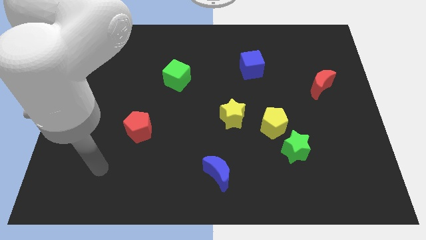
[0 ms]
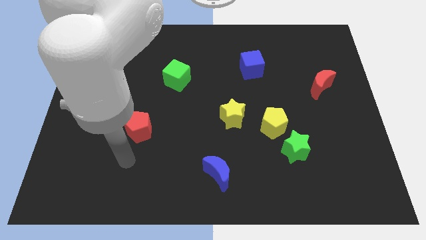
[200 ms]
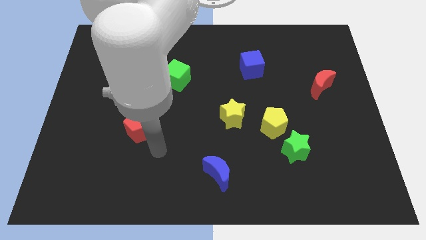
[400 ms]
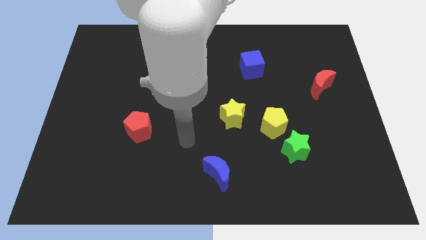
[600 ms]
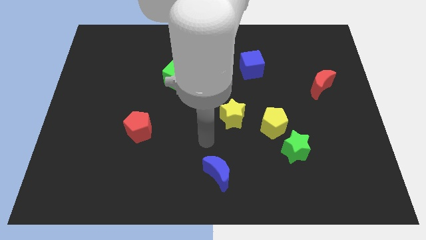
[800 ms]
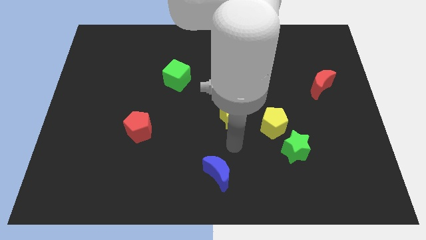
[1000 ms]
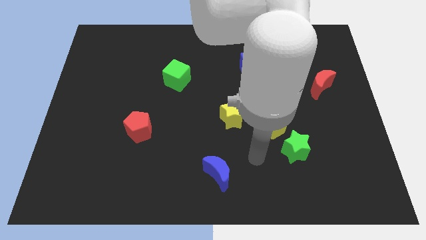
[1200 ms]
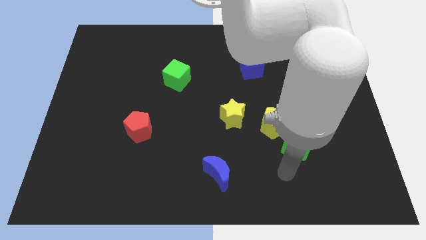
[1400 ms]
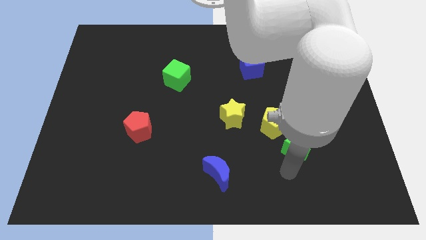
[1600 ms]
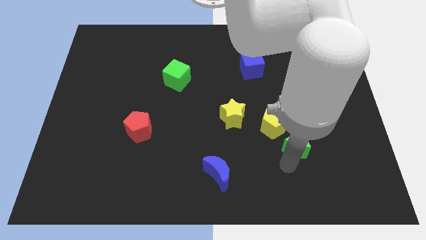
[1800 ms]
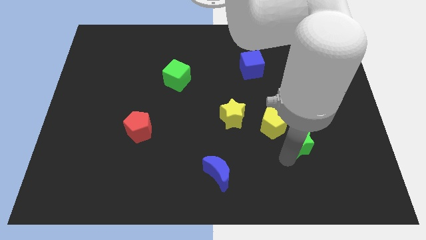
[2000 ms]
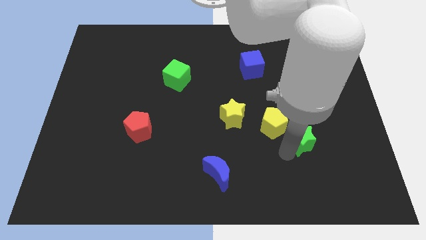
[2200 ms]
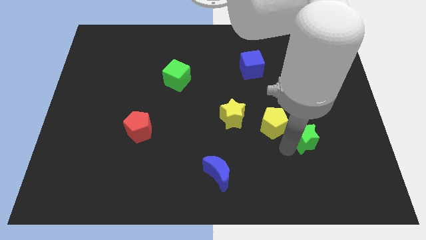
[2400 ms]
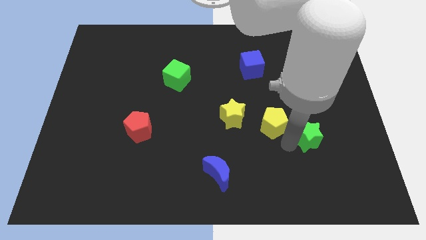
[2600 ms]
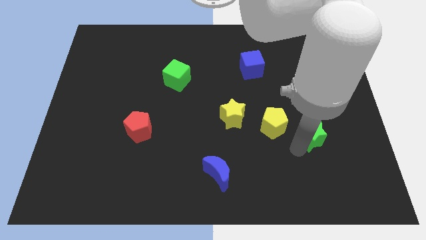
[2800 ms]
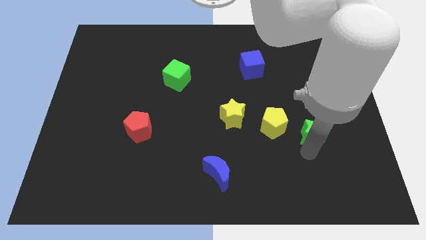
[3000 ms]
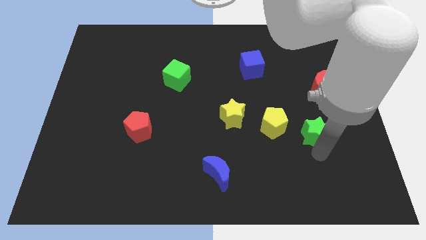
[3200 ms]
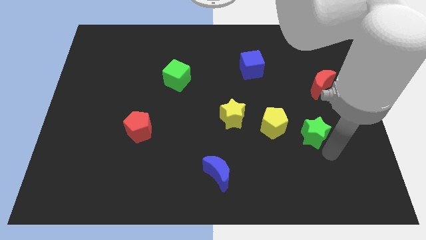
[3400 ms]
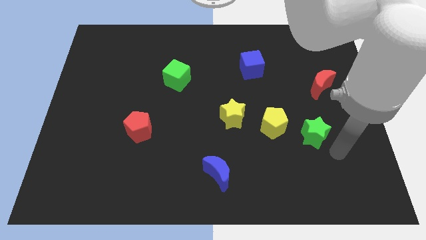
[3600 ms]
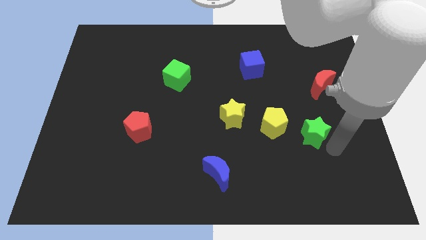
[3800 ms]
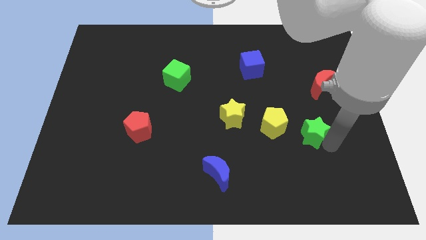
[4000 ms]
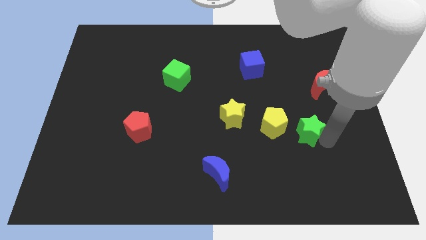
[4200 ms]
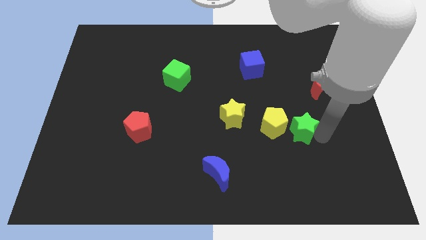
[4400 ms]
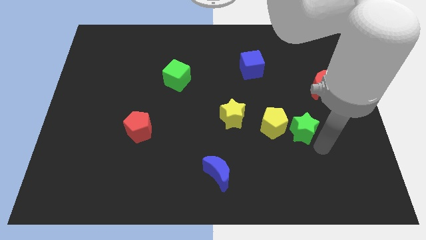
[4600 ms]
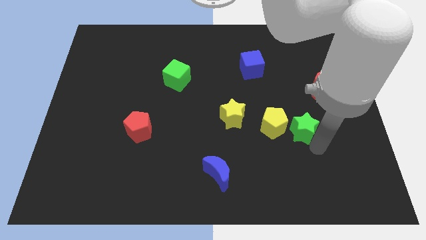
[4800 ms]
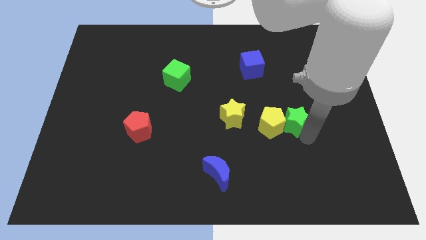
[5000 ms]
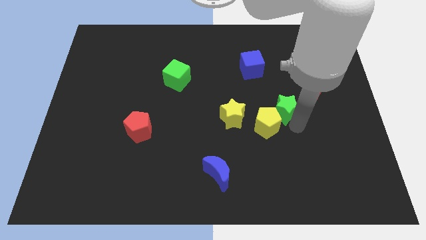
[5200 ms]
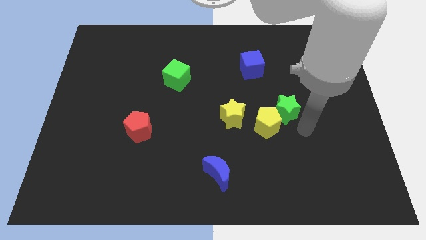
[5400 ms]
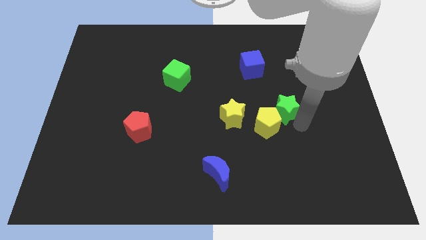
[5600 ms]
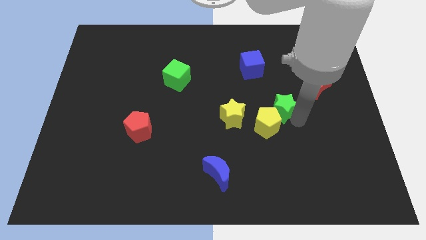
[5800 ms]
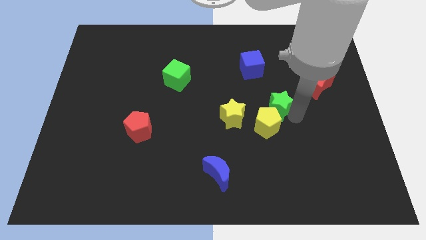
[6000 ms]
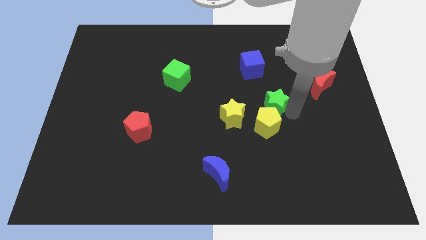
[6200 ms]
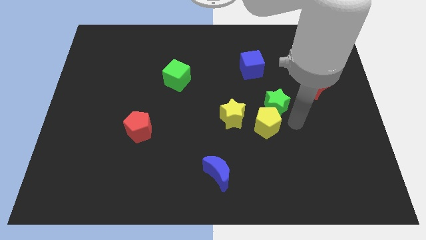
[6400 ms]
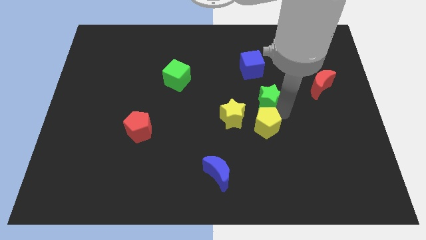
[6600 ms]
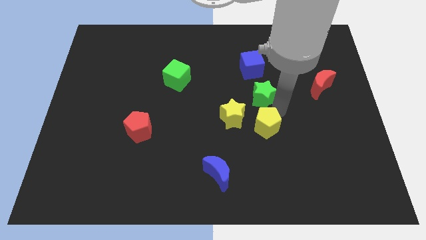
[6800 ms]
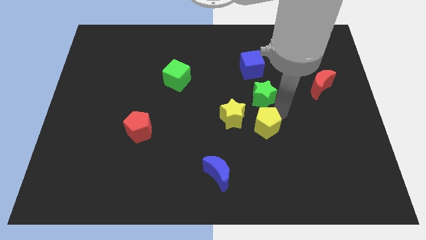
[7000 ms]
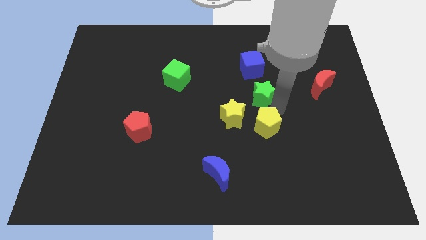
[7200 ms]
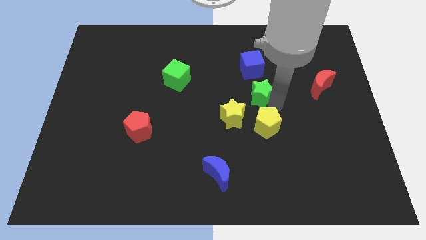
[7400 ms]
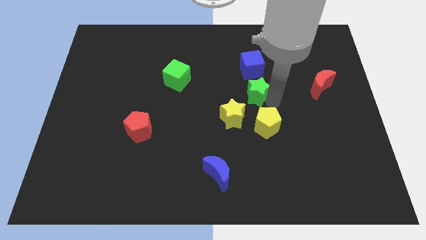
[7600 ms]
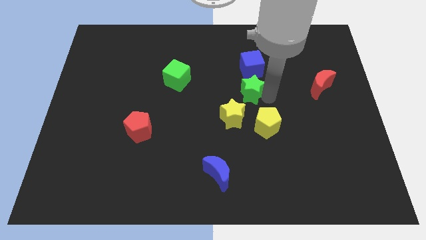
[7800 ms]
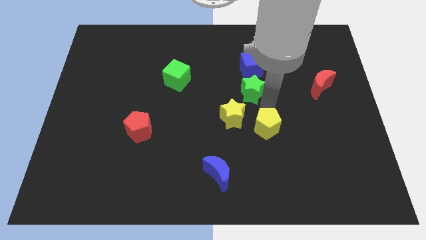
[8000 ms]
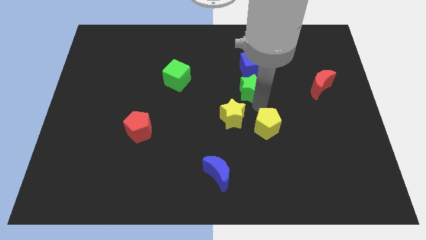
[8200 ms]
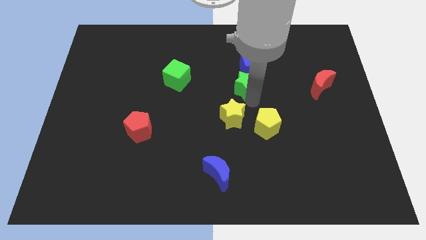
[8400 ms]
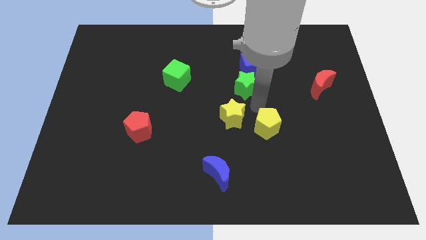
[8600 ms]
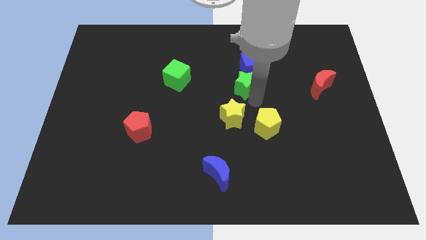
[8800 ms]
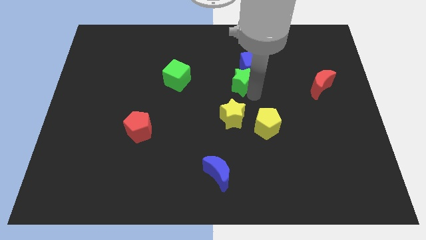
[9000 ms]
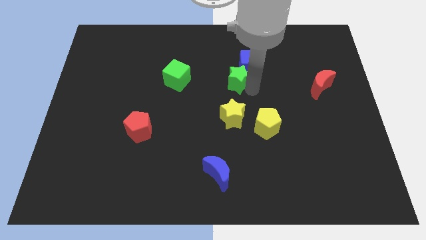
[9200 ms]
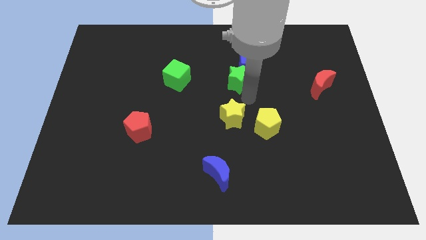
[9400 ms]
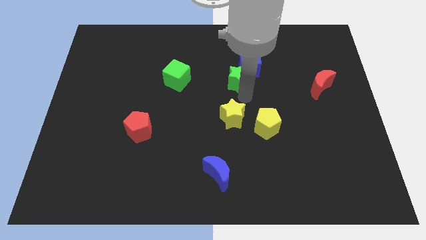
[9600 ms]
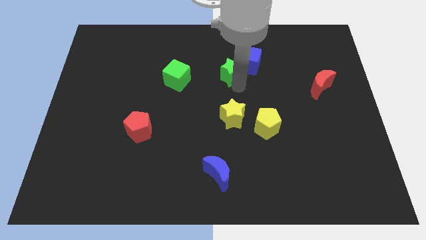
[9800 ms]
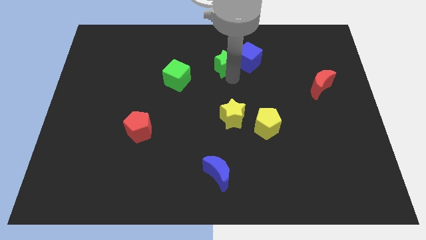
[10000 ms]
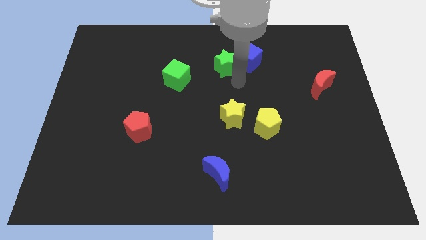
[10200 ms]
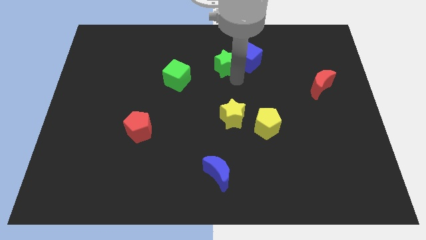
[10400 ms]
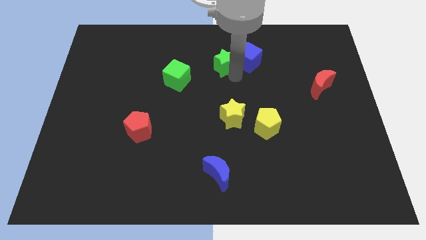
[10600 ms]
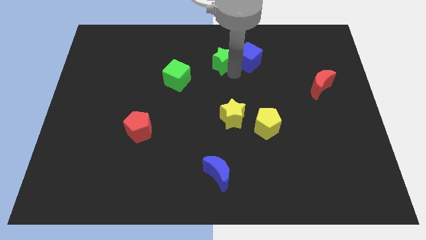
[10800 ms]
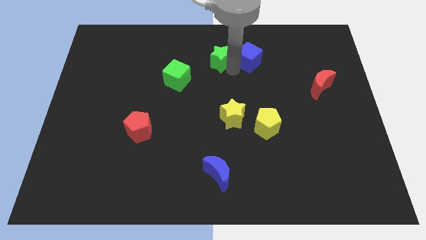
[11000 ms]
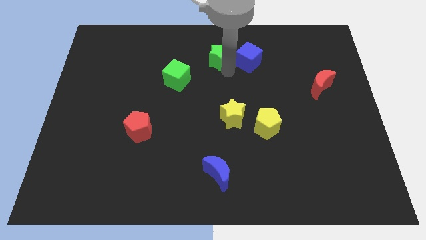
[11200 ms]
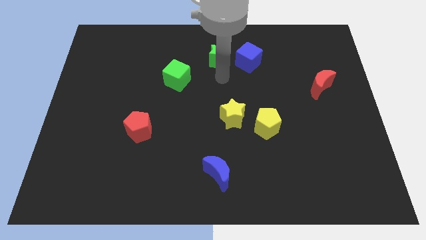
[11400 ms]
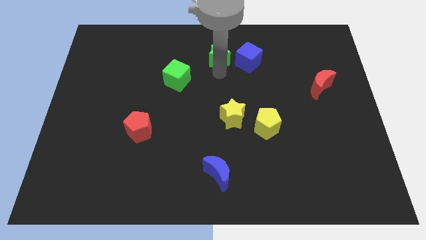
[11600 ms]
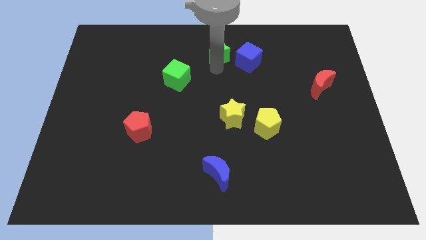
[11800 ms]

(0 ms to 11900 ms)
move the green star to the top

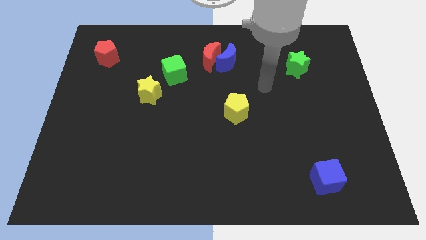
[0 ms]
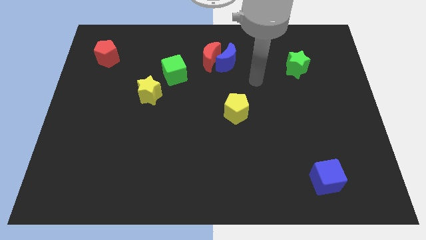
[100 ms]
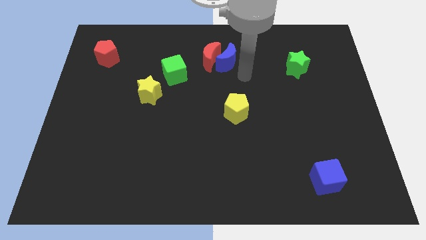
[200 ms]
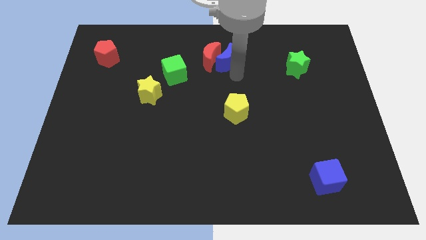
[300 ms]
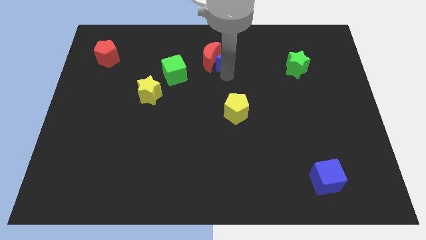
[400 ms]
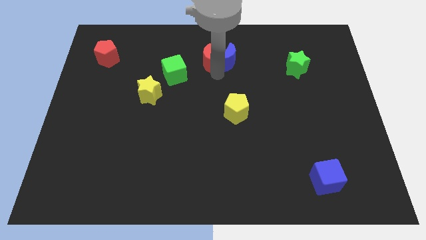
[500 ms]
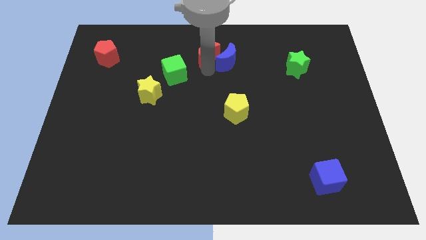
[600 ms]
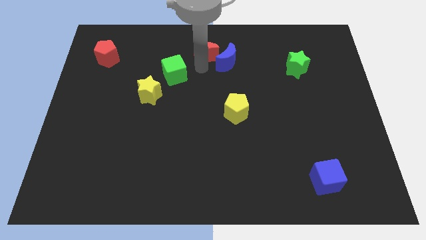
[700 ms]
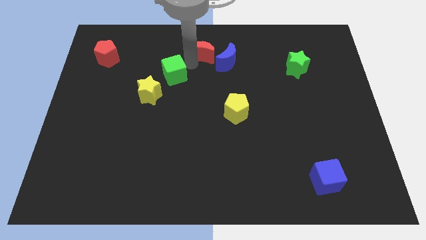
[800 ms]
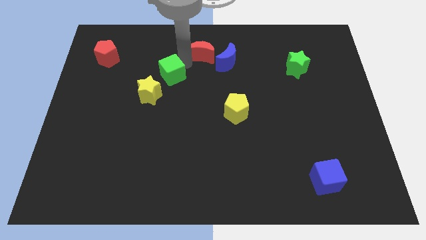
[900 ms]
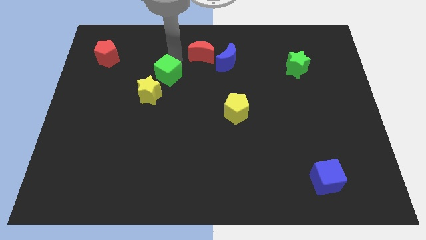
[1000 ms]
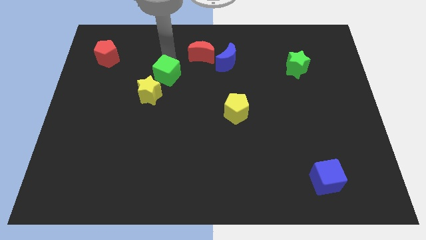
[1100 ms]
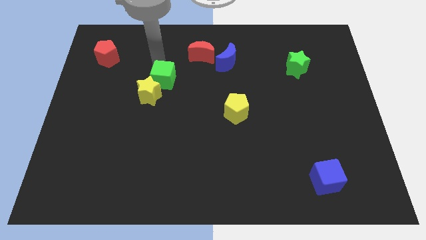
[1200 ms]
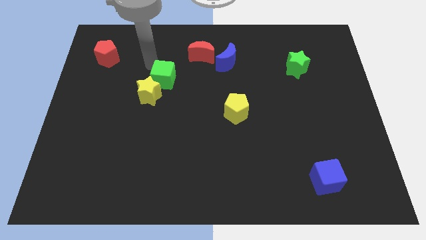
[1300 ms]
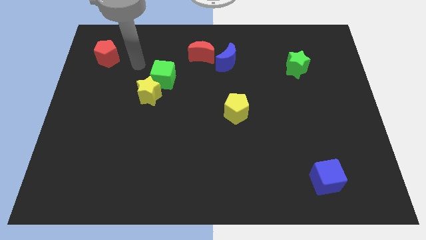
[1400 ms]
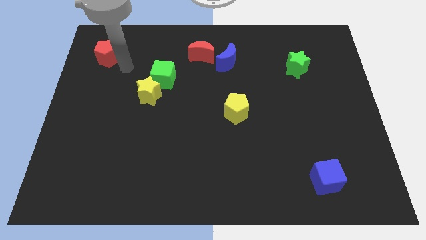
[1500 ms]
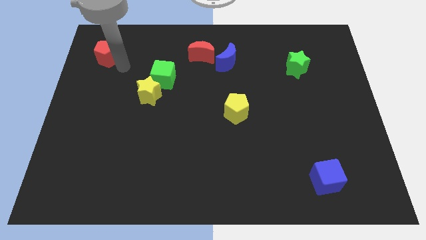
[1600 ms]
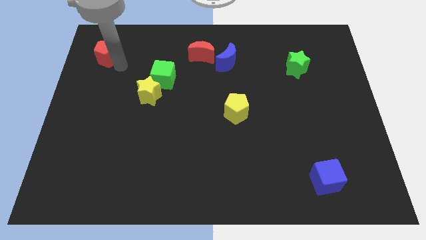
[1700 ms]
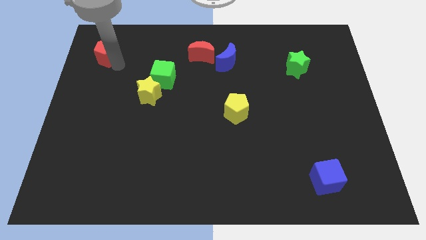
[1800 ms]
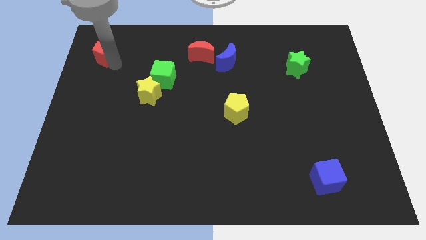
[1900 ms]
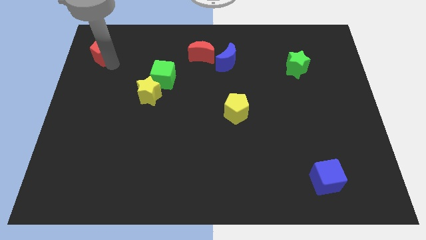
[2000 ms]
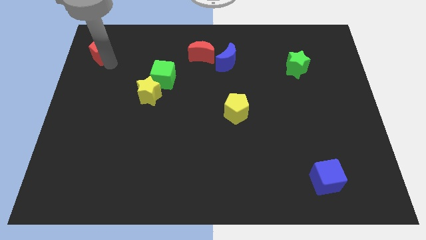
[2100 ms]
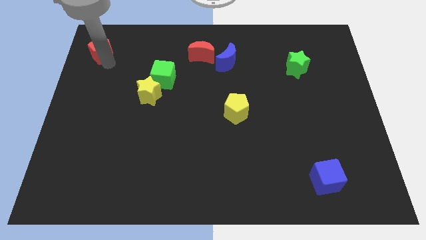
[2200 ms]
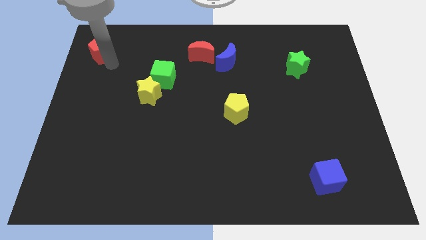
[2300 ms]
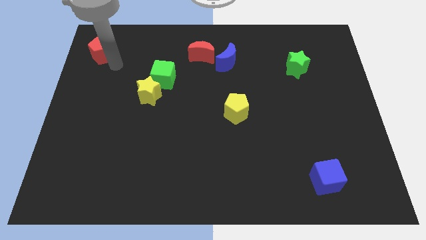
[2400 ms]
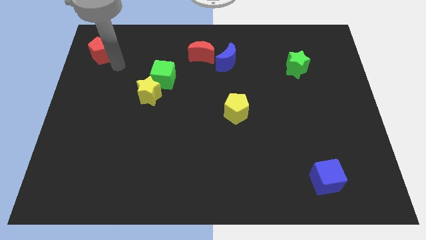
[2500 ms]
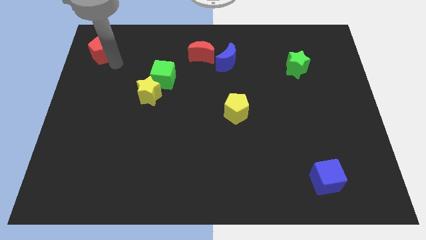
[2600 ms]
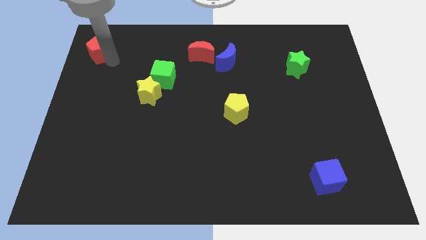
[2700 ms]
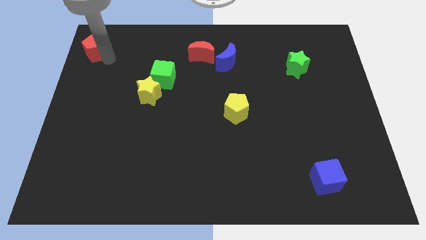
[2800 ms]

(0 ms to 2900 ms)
push the red pentagon to the top left
